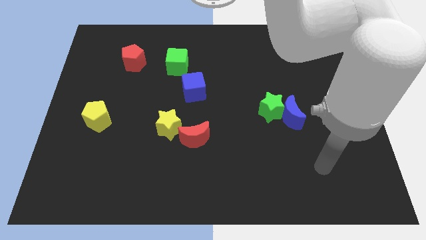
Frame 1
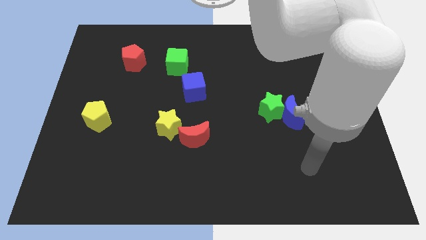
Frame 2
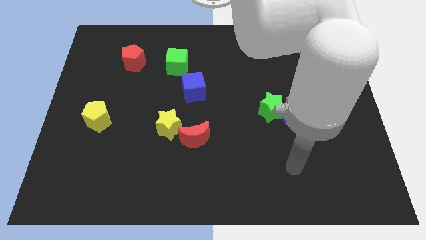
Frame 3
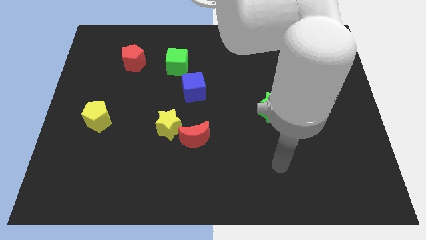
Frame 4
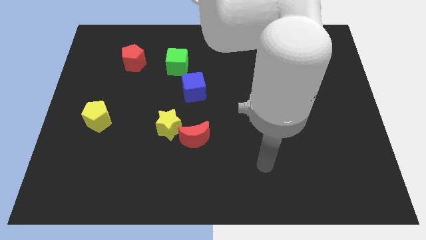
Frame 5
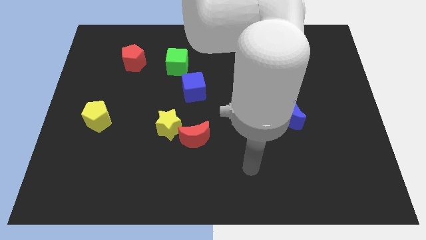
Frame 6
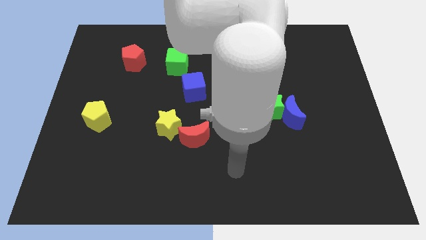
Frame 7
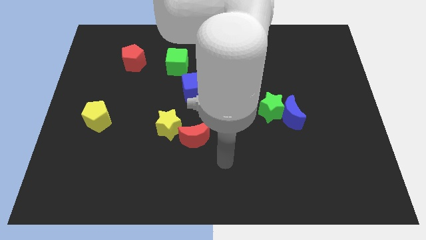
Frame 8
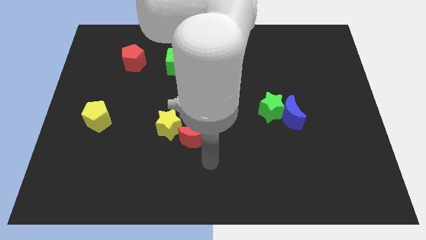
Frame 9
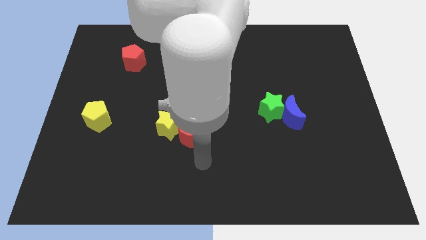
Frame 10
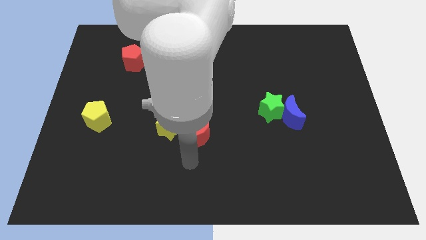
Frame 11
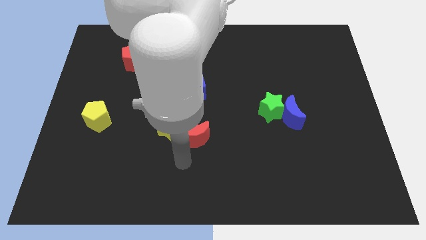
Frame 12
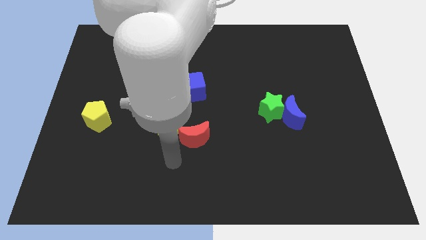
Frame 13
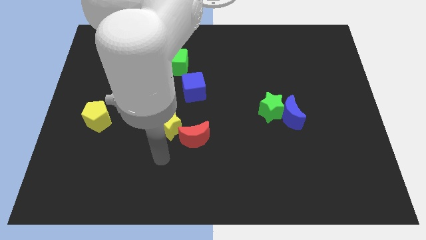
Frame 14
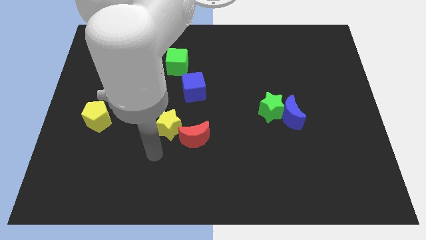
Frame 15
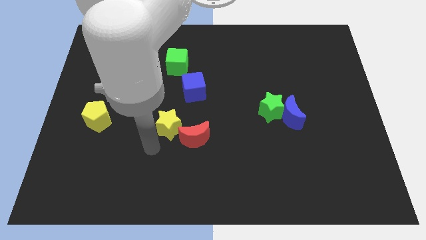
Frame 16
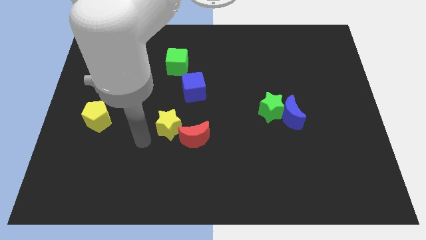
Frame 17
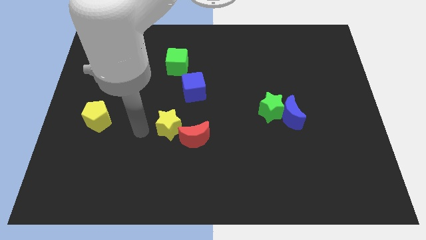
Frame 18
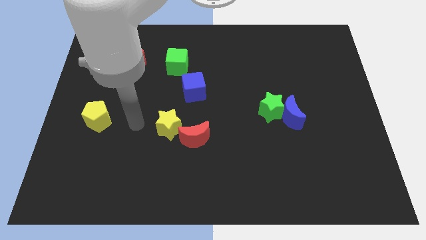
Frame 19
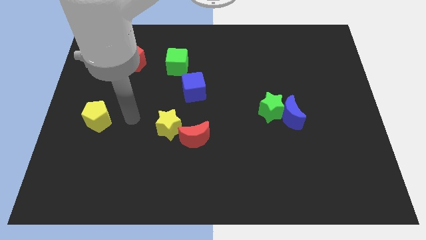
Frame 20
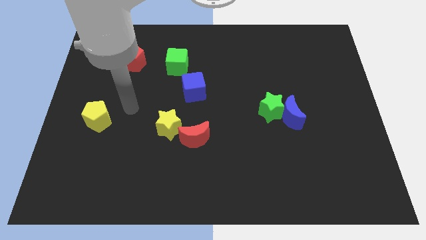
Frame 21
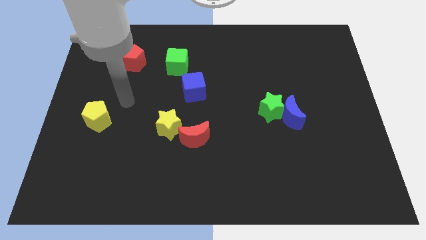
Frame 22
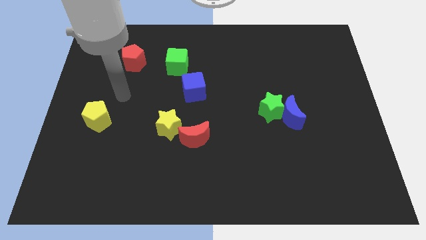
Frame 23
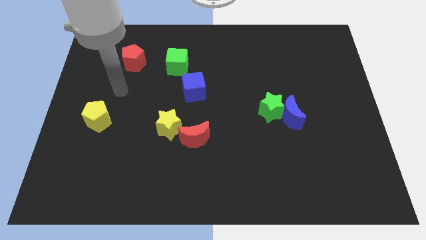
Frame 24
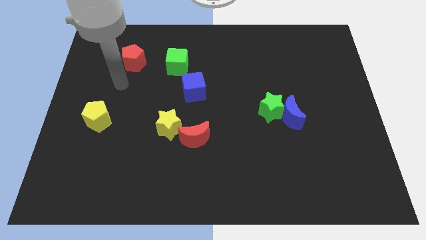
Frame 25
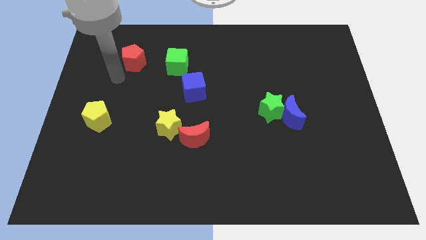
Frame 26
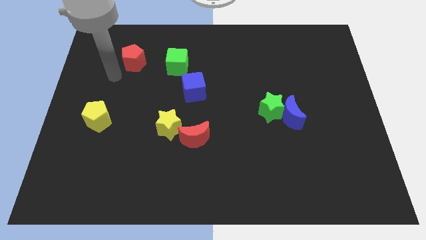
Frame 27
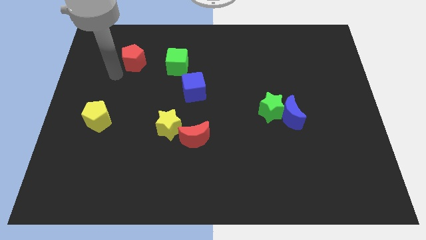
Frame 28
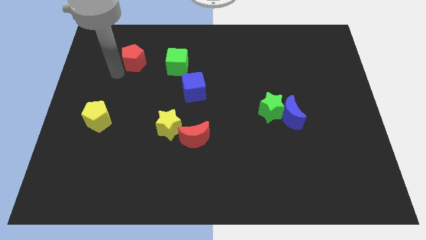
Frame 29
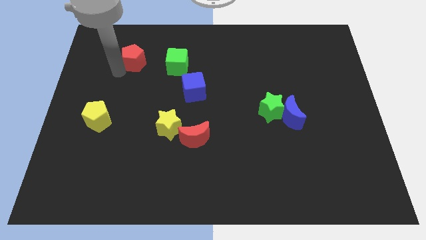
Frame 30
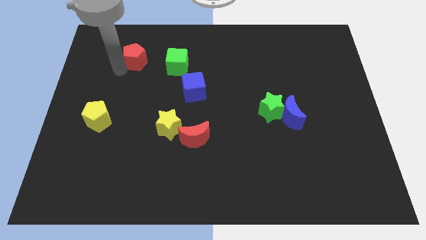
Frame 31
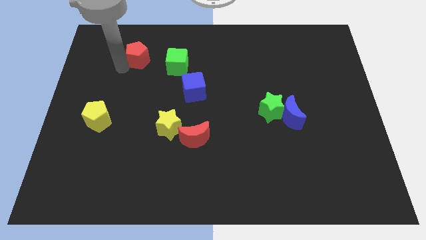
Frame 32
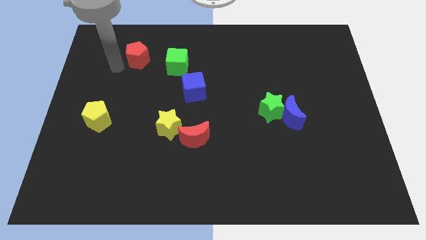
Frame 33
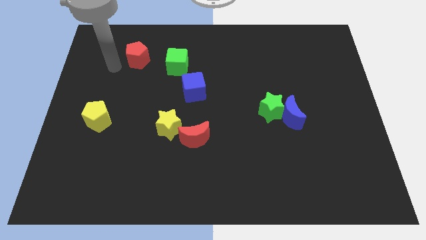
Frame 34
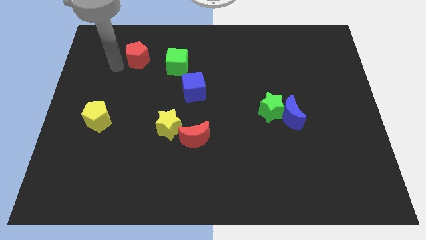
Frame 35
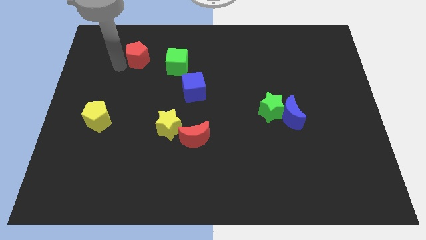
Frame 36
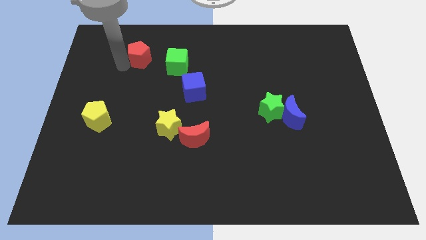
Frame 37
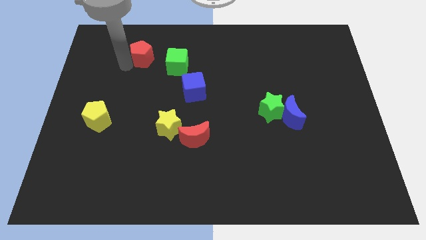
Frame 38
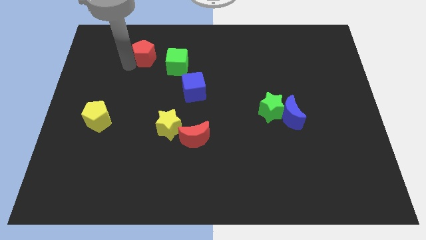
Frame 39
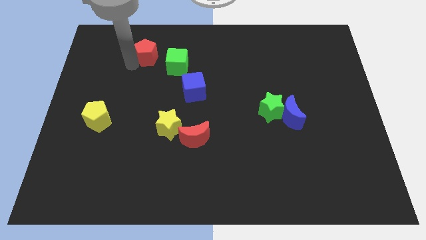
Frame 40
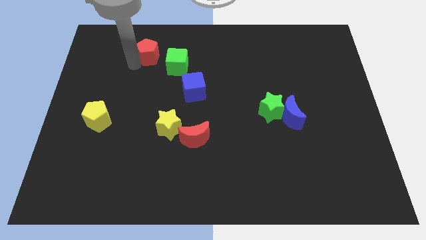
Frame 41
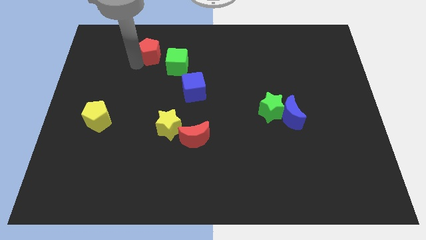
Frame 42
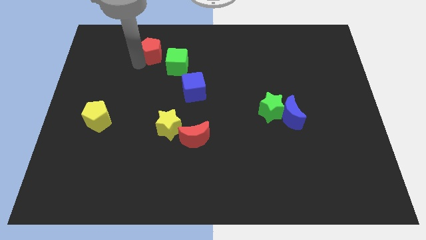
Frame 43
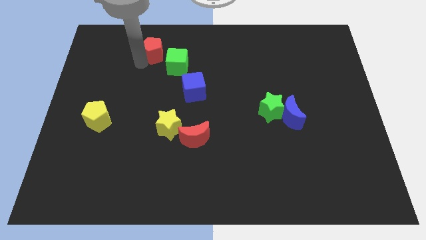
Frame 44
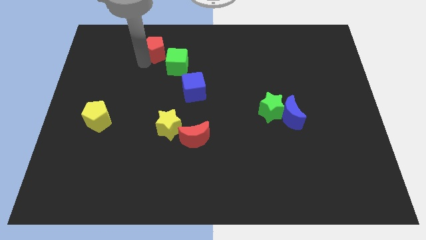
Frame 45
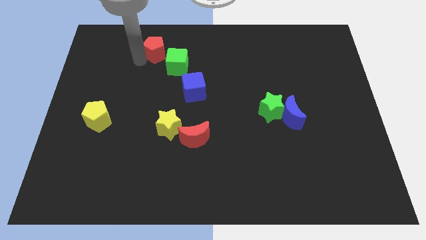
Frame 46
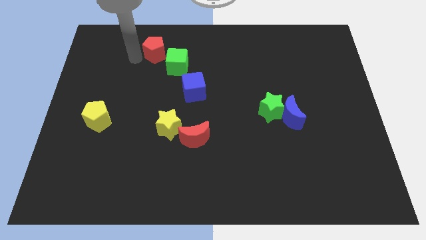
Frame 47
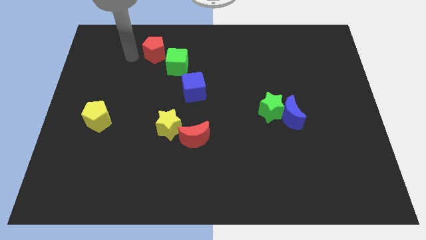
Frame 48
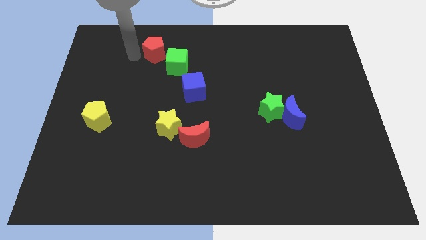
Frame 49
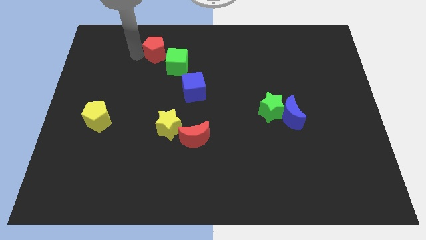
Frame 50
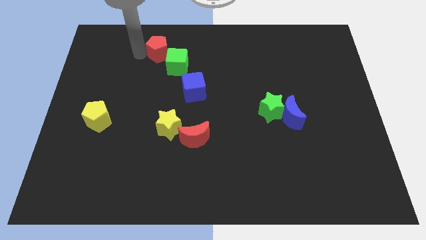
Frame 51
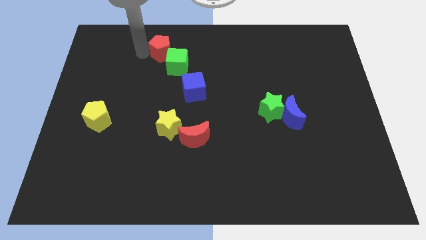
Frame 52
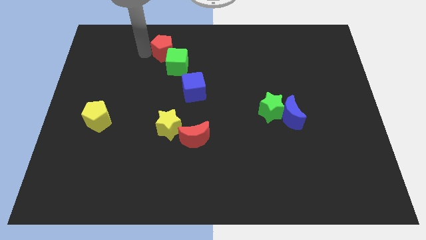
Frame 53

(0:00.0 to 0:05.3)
move the red pentagon right somewhat

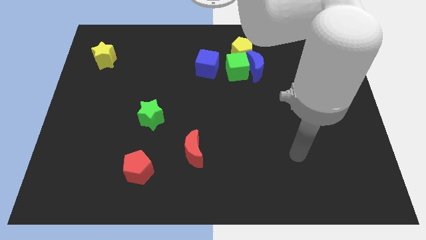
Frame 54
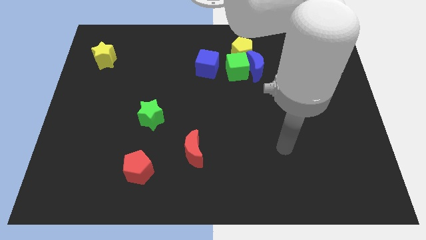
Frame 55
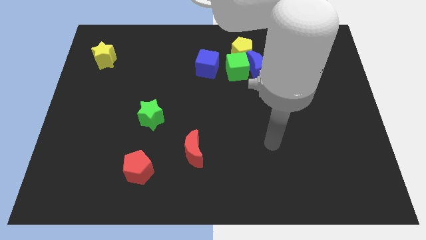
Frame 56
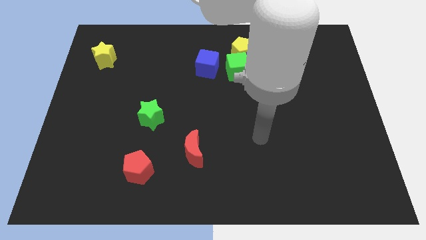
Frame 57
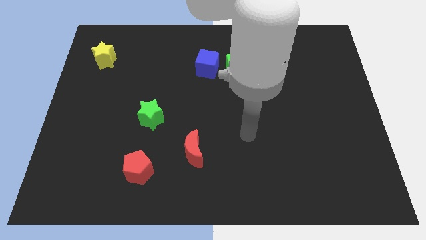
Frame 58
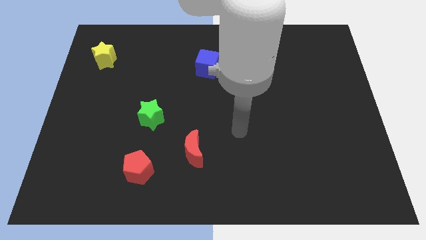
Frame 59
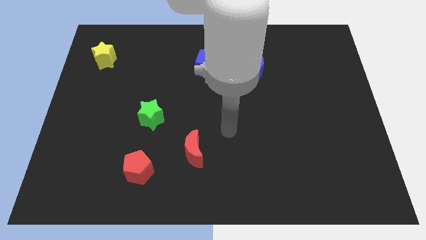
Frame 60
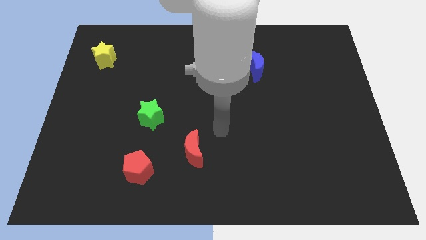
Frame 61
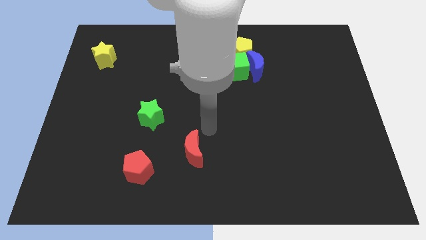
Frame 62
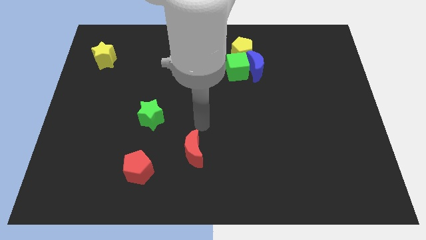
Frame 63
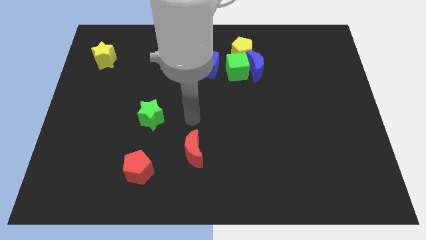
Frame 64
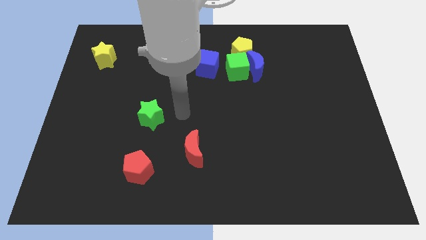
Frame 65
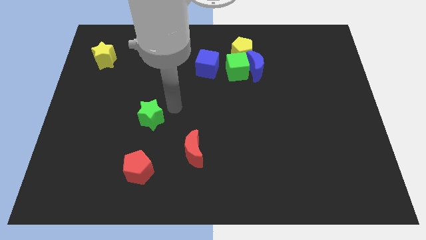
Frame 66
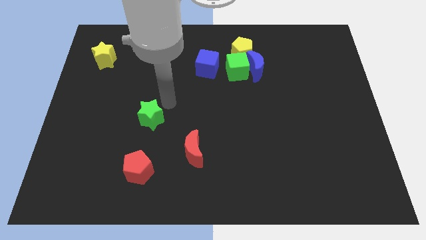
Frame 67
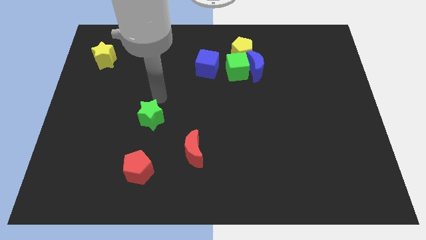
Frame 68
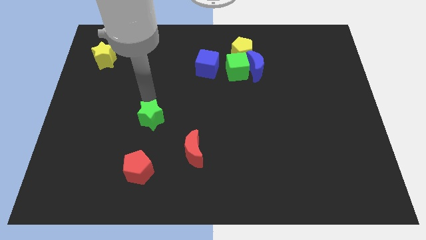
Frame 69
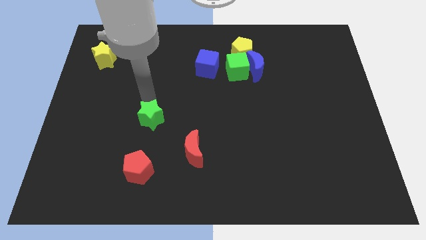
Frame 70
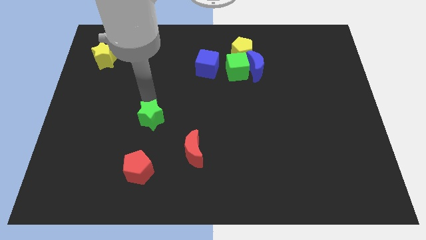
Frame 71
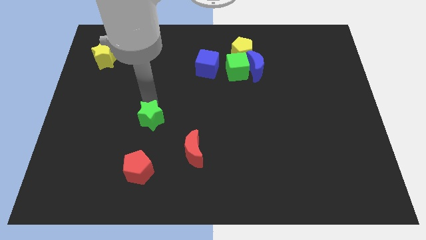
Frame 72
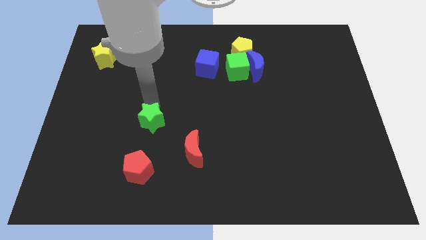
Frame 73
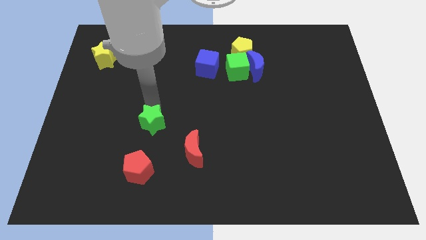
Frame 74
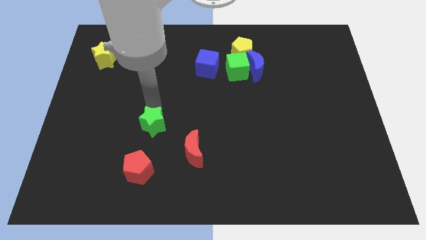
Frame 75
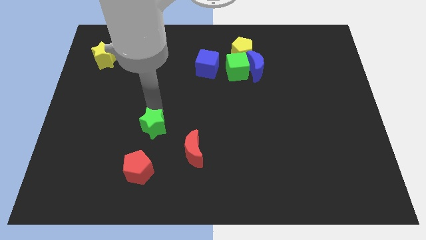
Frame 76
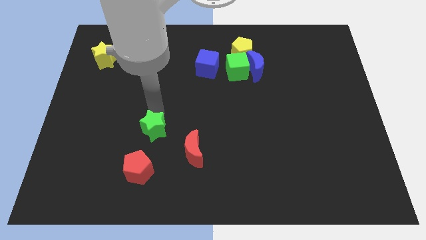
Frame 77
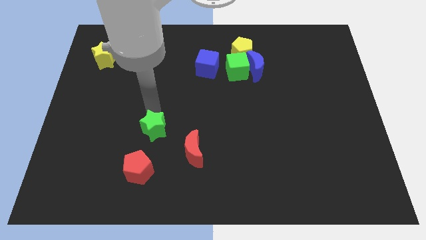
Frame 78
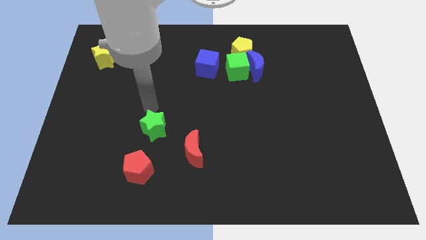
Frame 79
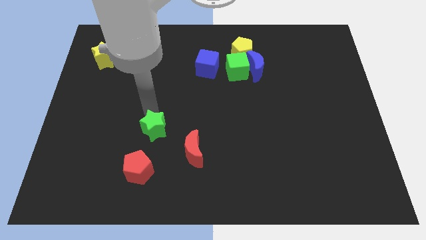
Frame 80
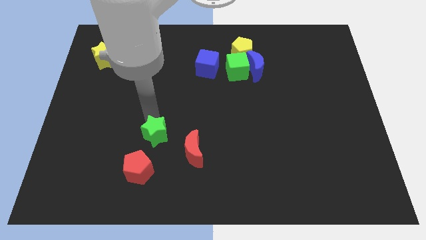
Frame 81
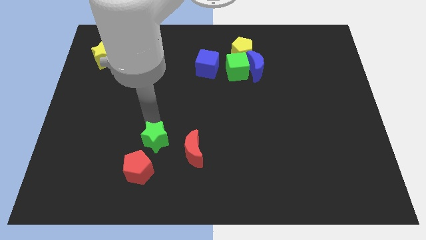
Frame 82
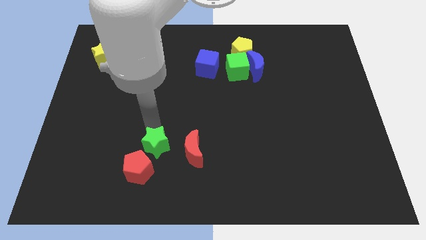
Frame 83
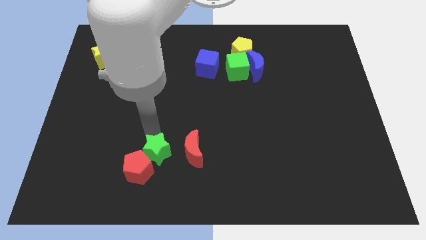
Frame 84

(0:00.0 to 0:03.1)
push the green star a little down and to the right diagonally
